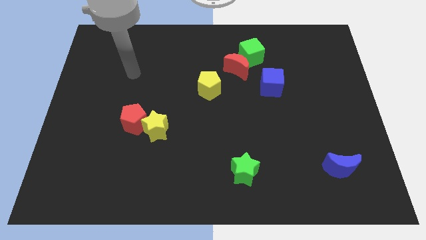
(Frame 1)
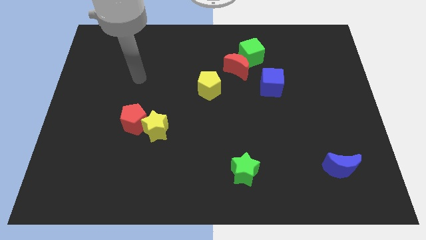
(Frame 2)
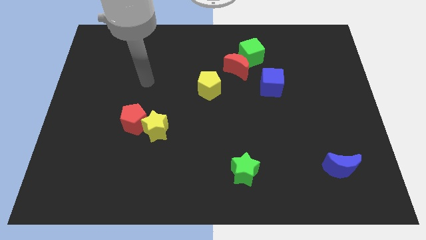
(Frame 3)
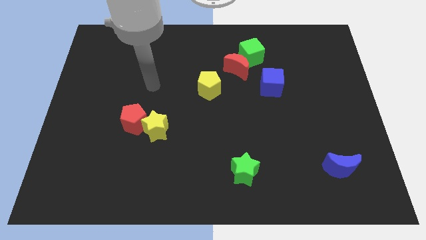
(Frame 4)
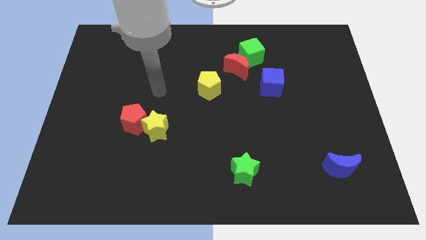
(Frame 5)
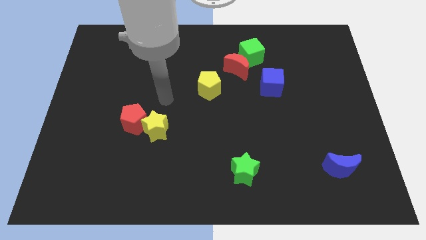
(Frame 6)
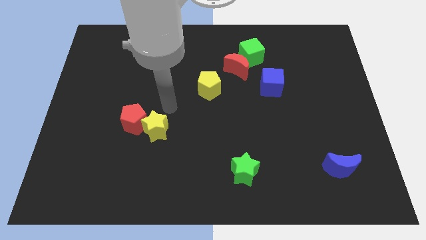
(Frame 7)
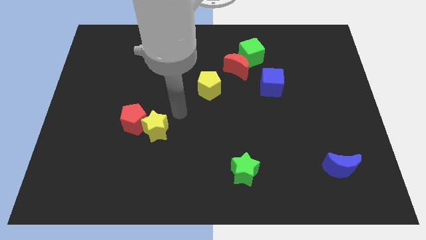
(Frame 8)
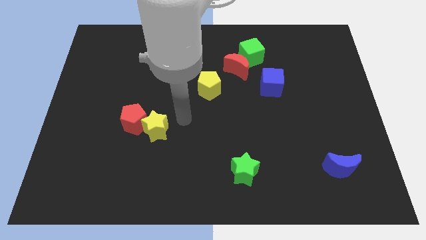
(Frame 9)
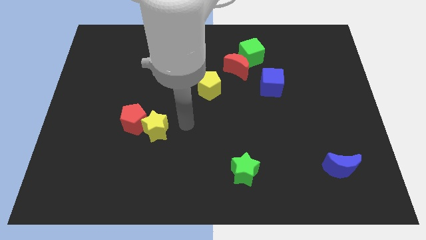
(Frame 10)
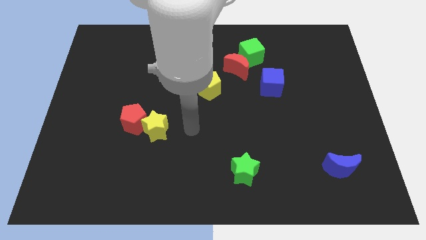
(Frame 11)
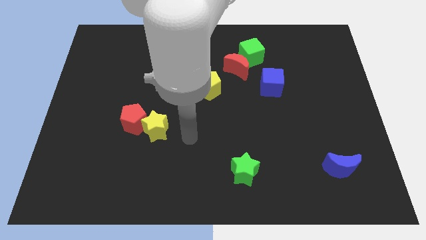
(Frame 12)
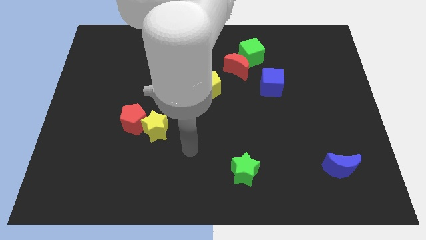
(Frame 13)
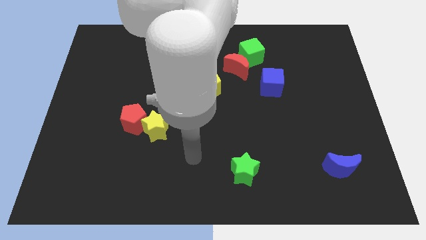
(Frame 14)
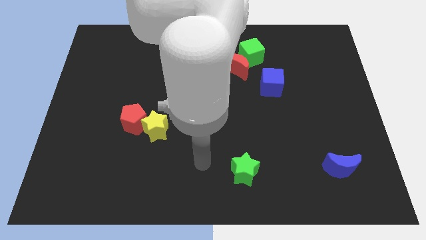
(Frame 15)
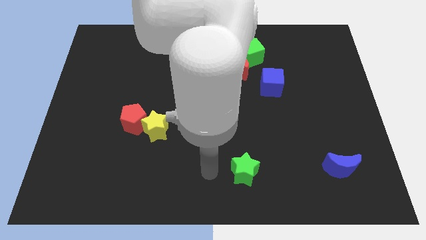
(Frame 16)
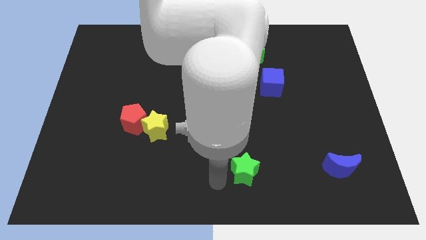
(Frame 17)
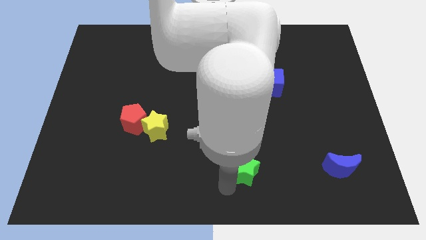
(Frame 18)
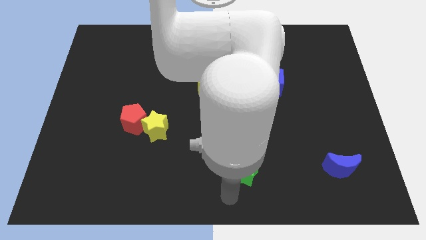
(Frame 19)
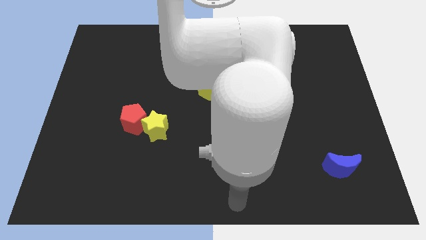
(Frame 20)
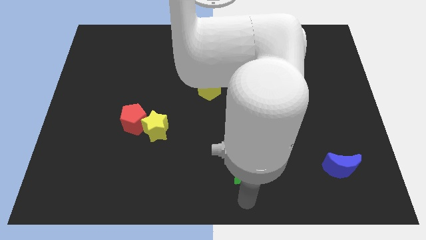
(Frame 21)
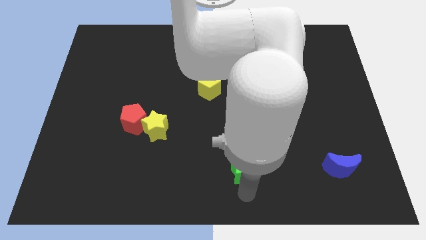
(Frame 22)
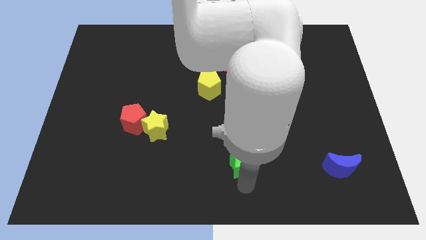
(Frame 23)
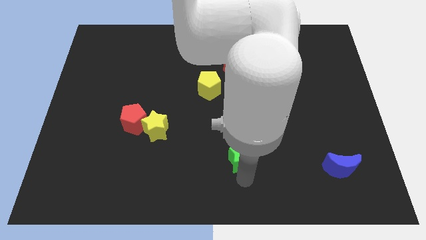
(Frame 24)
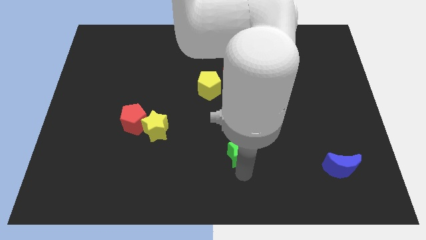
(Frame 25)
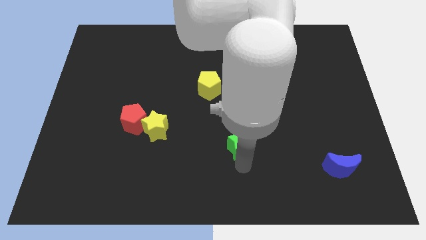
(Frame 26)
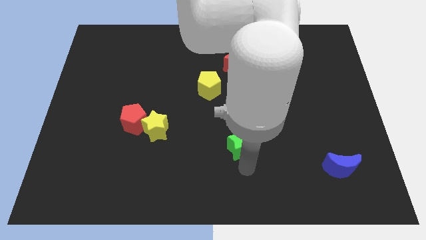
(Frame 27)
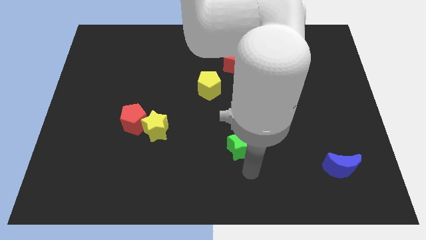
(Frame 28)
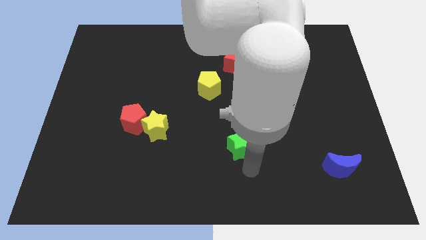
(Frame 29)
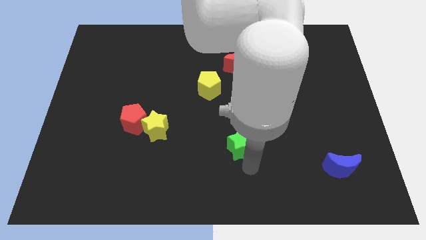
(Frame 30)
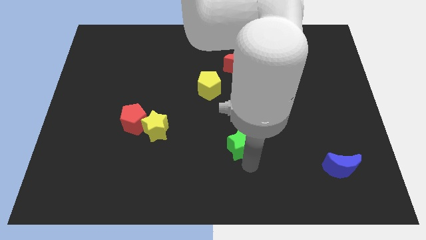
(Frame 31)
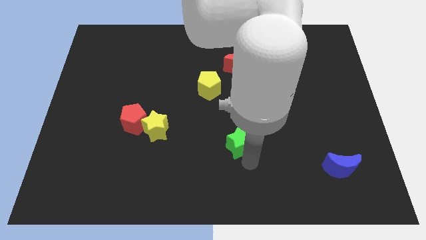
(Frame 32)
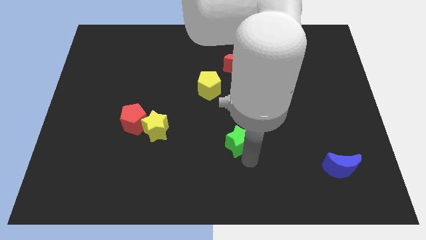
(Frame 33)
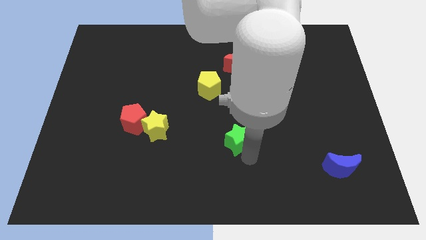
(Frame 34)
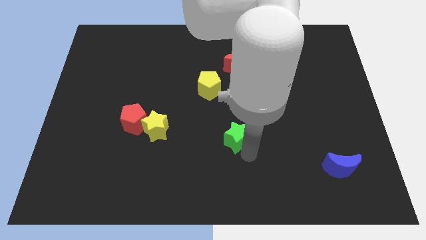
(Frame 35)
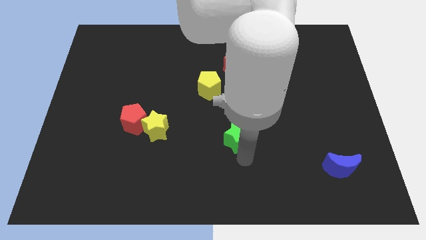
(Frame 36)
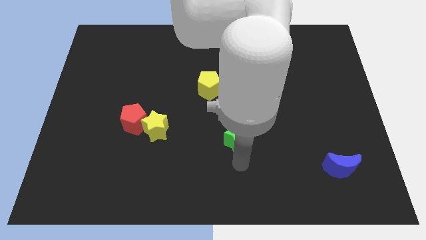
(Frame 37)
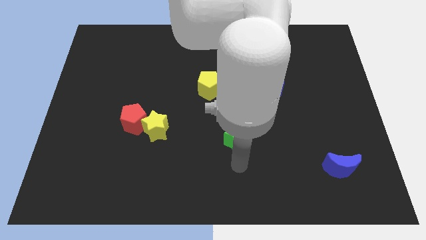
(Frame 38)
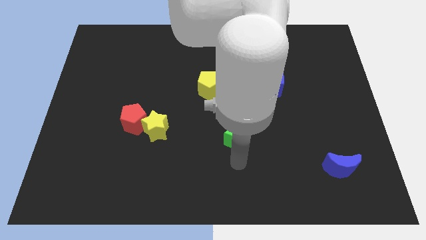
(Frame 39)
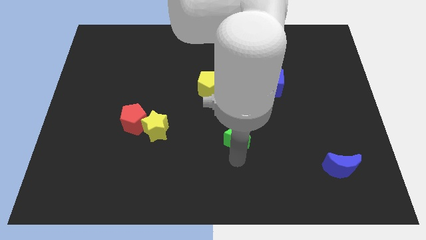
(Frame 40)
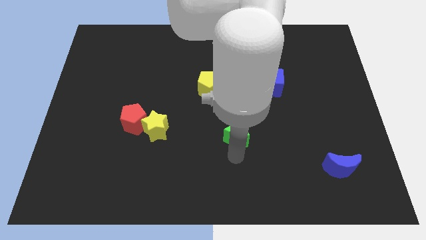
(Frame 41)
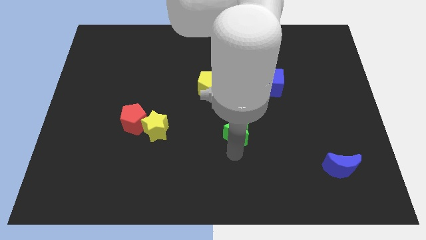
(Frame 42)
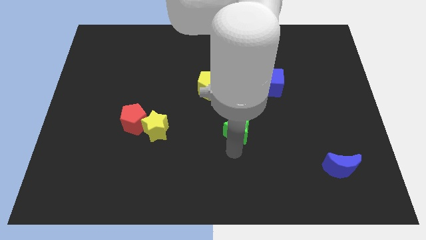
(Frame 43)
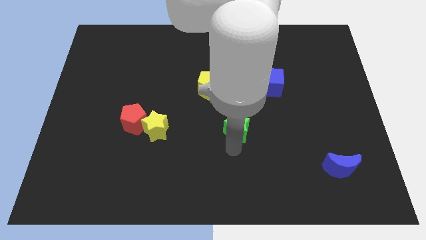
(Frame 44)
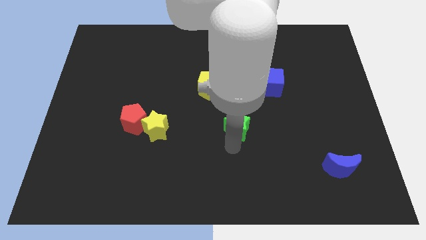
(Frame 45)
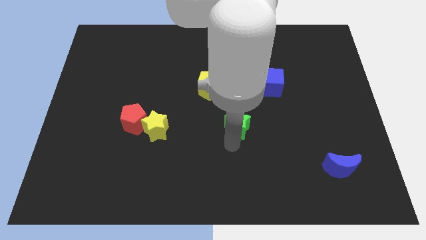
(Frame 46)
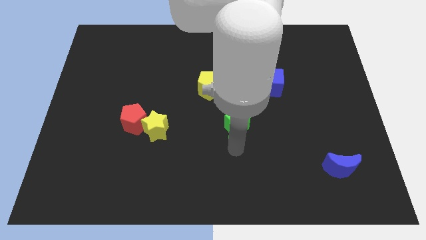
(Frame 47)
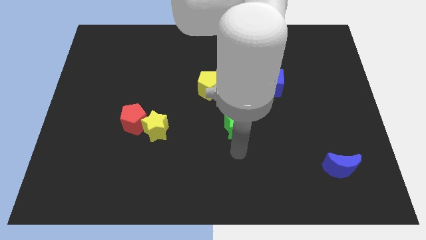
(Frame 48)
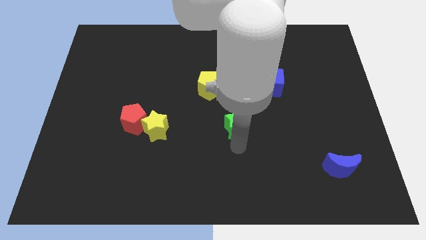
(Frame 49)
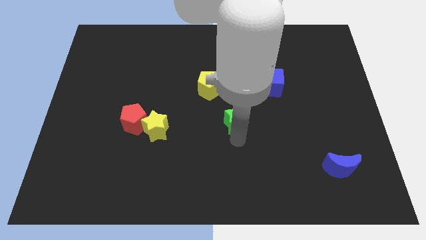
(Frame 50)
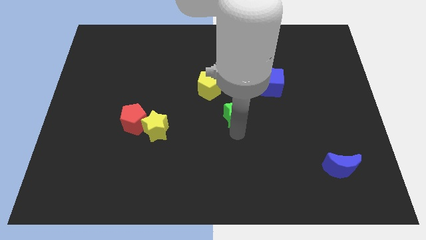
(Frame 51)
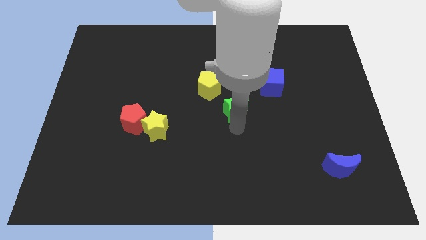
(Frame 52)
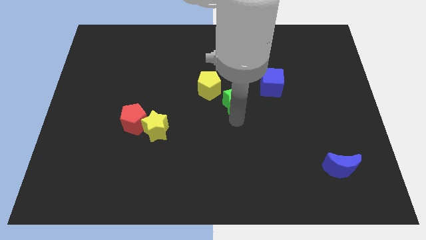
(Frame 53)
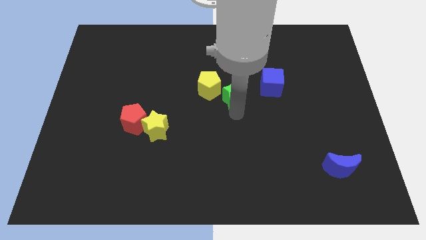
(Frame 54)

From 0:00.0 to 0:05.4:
put the green star just left of the blue cube

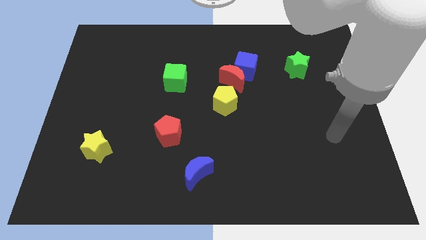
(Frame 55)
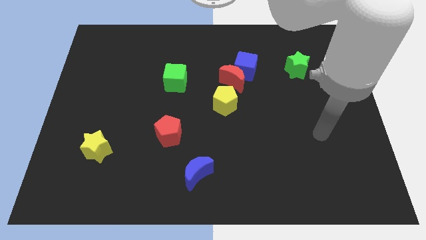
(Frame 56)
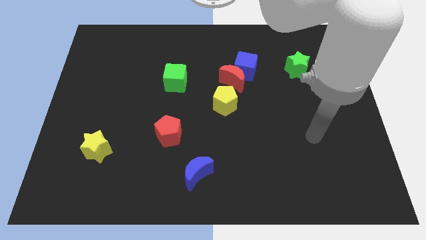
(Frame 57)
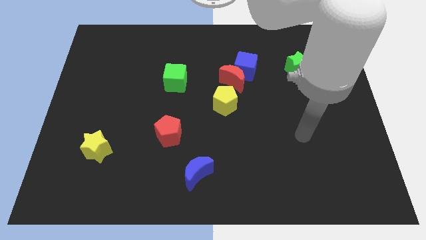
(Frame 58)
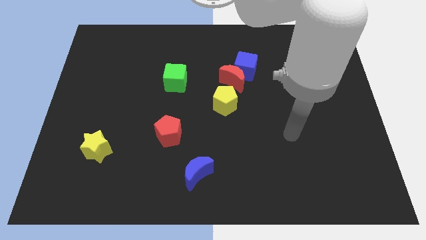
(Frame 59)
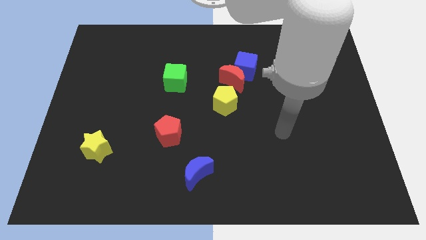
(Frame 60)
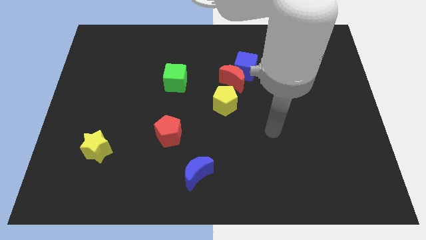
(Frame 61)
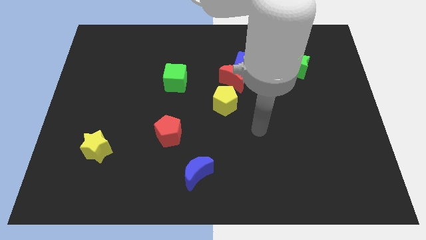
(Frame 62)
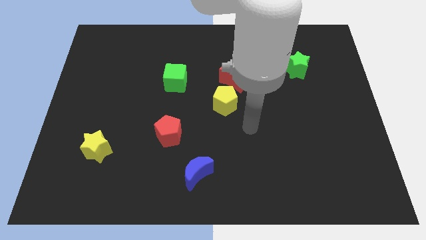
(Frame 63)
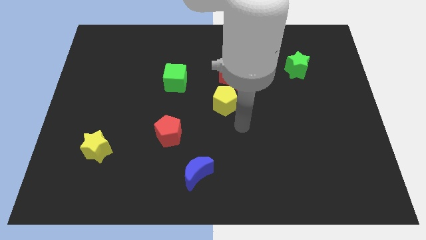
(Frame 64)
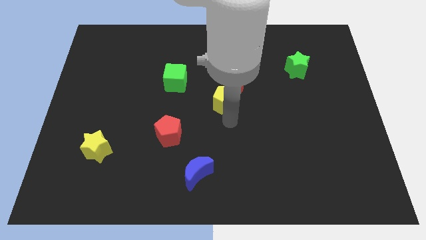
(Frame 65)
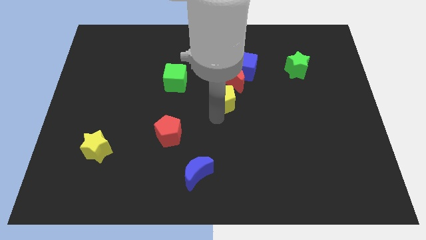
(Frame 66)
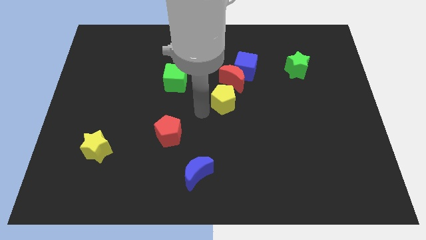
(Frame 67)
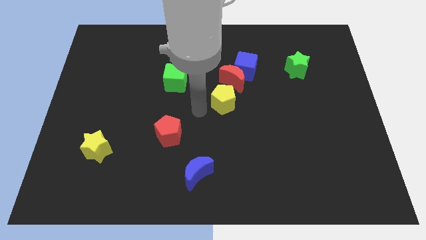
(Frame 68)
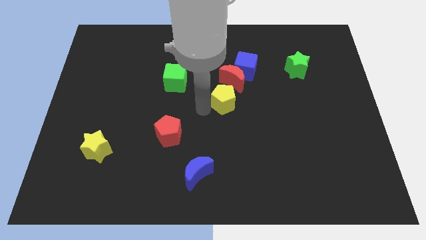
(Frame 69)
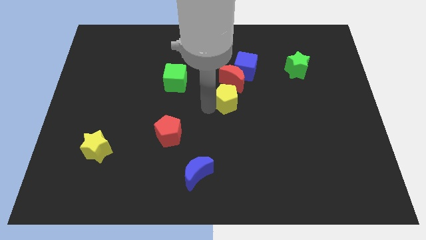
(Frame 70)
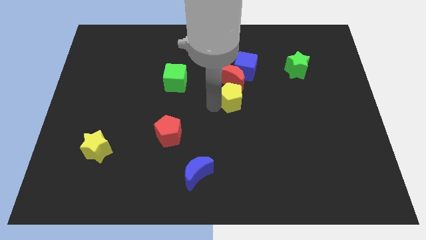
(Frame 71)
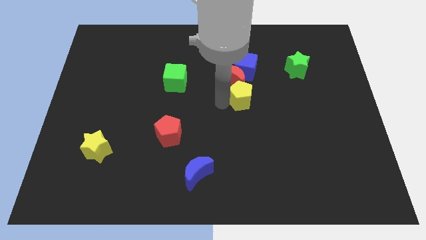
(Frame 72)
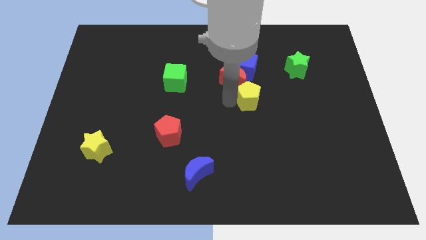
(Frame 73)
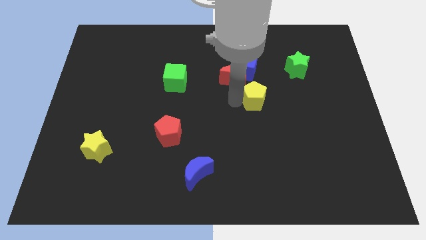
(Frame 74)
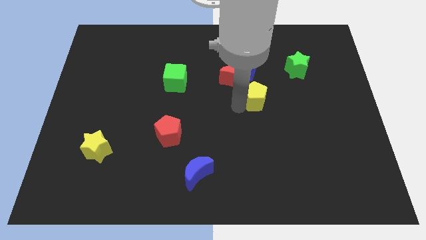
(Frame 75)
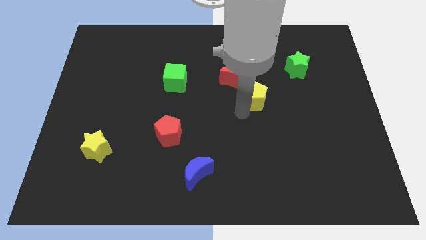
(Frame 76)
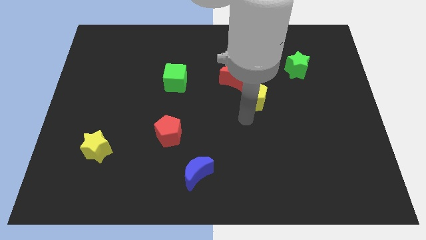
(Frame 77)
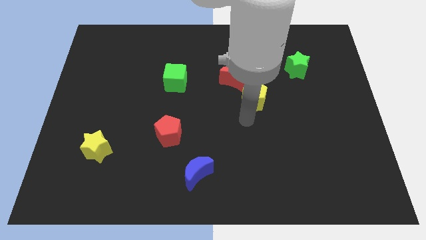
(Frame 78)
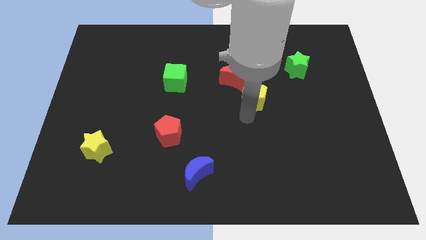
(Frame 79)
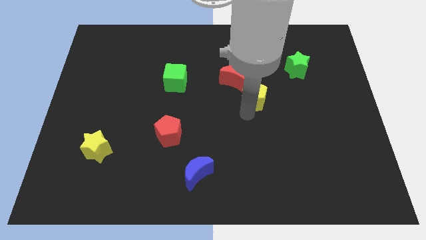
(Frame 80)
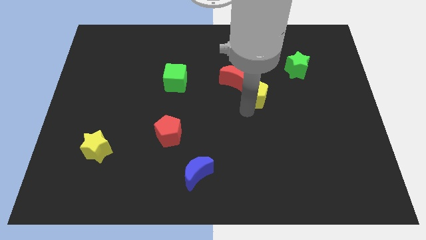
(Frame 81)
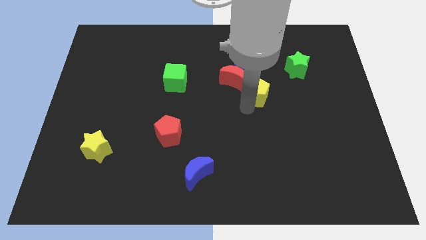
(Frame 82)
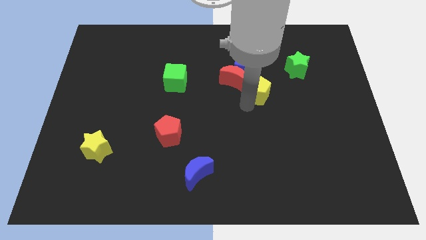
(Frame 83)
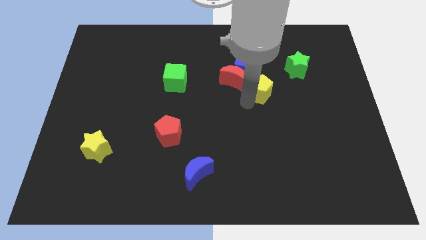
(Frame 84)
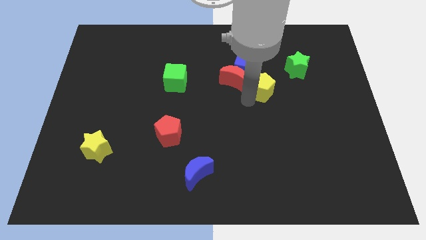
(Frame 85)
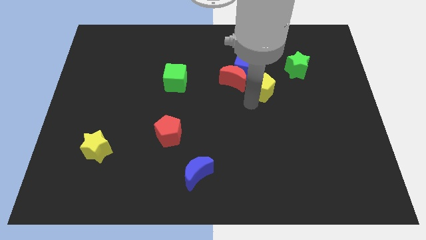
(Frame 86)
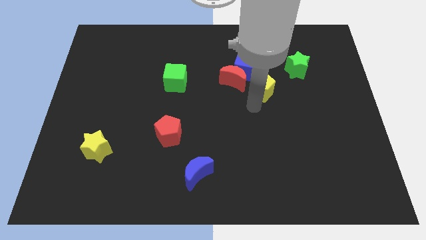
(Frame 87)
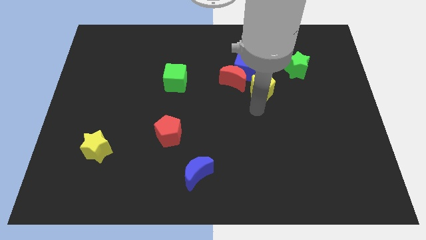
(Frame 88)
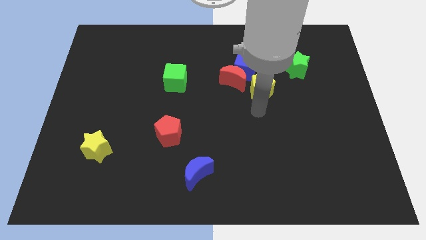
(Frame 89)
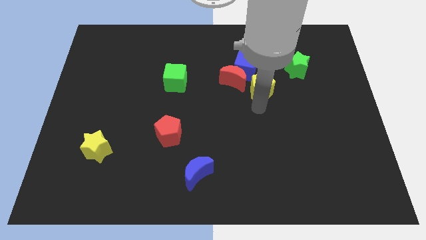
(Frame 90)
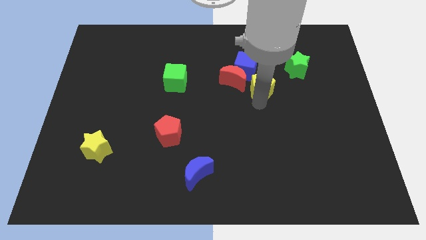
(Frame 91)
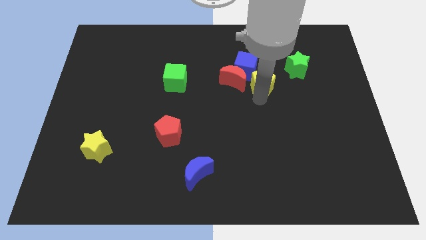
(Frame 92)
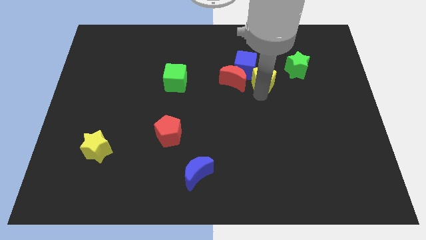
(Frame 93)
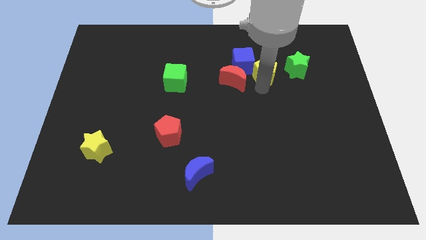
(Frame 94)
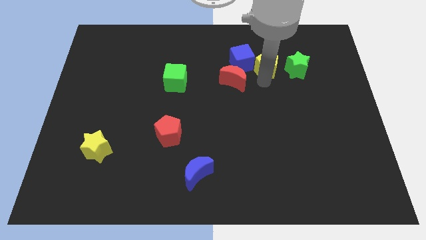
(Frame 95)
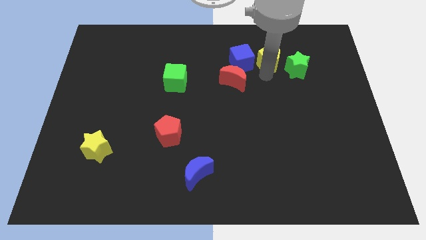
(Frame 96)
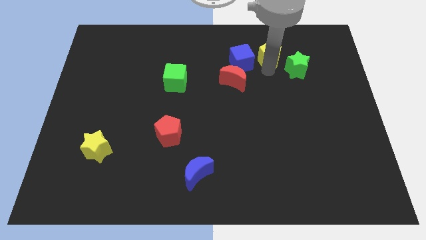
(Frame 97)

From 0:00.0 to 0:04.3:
put the yellow pentagon to the top right of the blue cube
